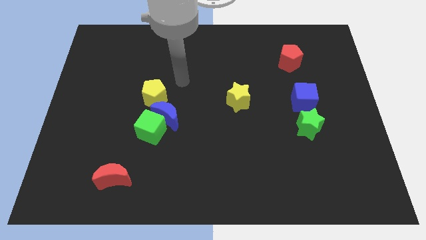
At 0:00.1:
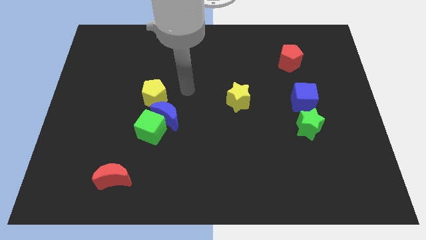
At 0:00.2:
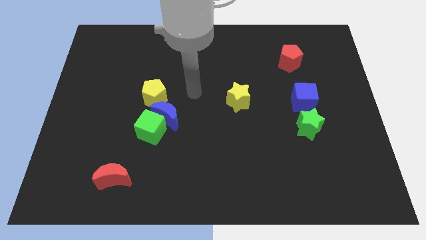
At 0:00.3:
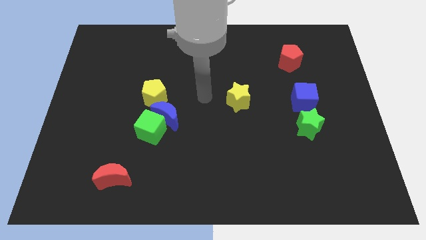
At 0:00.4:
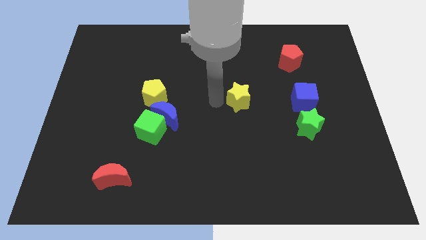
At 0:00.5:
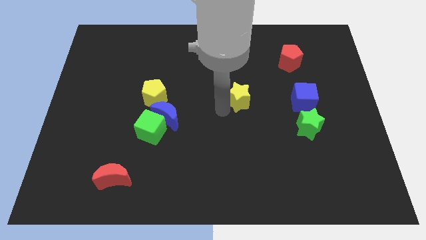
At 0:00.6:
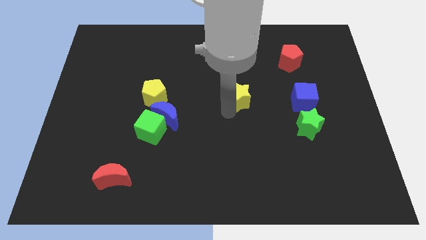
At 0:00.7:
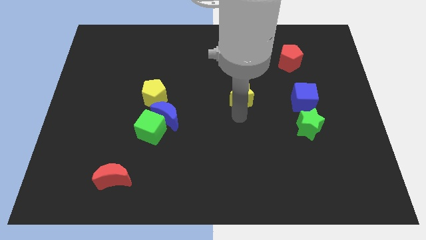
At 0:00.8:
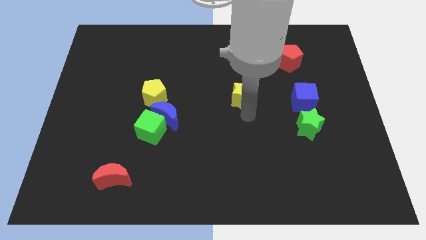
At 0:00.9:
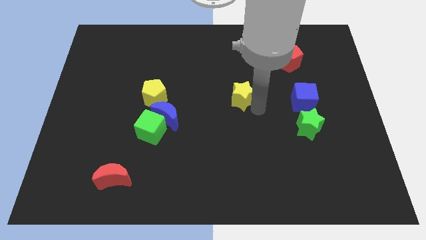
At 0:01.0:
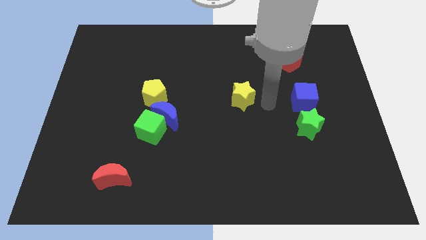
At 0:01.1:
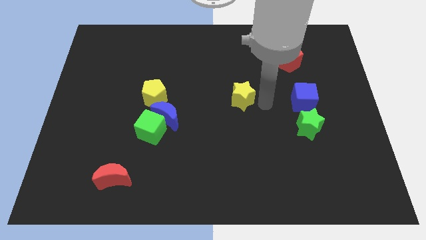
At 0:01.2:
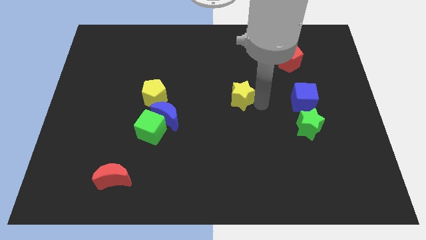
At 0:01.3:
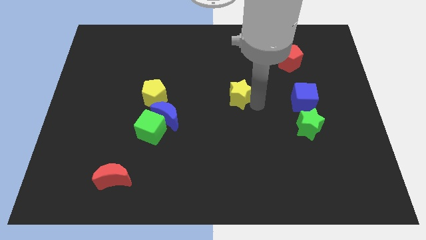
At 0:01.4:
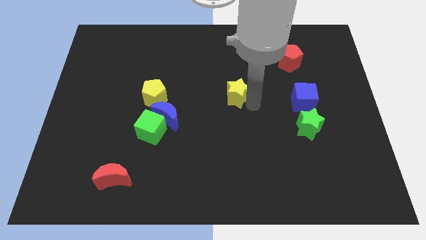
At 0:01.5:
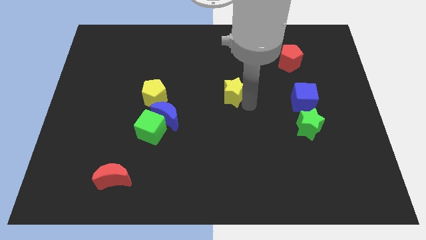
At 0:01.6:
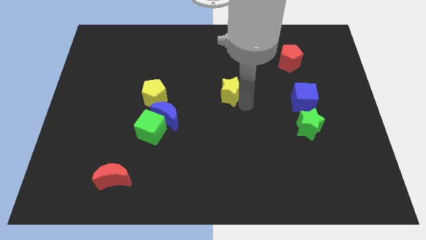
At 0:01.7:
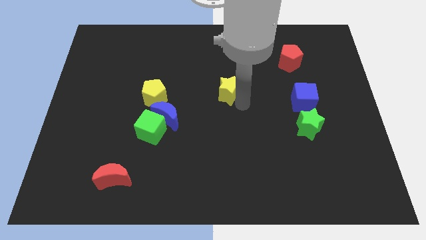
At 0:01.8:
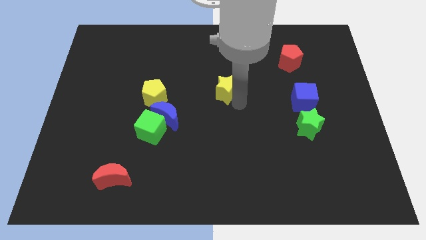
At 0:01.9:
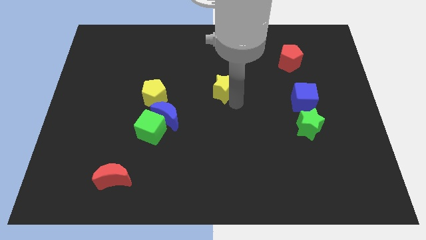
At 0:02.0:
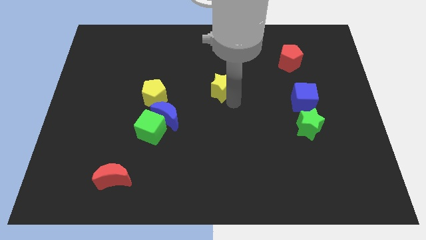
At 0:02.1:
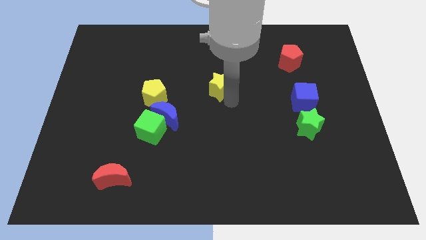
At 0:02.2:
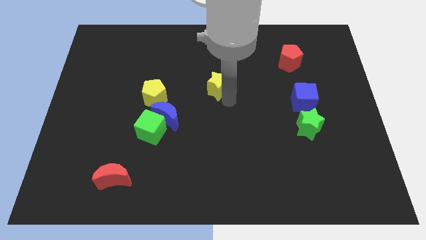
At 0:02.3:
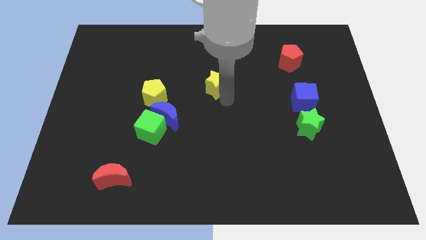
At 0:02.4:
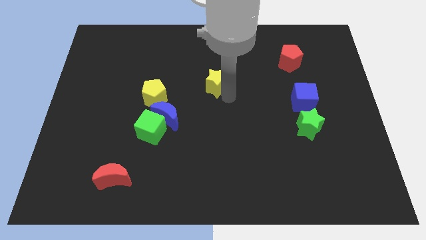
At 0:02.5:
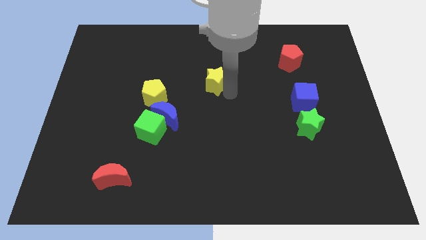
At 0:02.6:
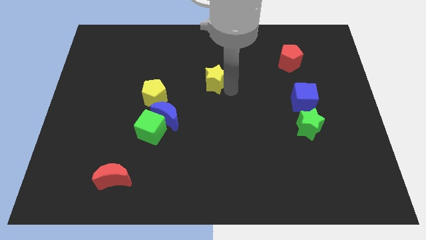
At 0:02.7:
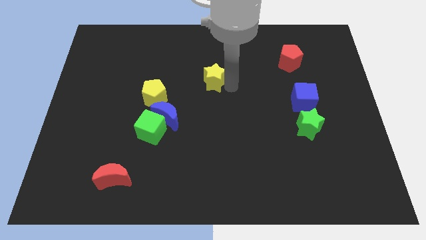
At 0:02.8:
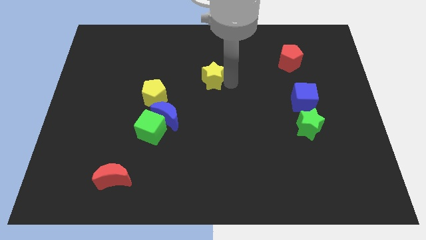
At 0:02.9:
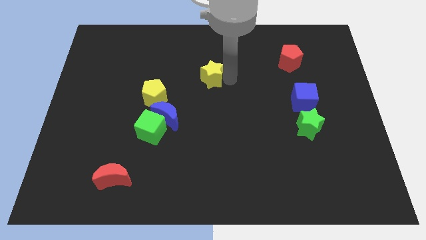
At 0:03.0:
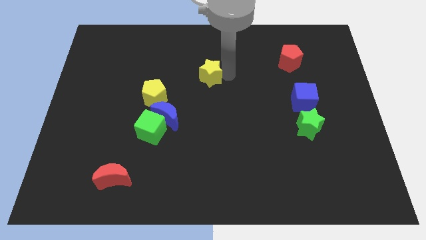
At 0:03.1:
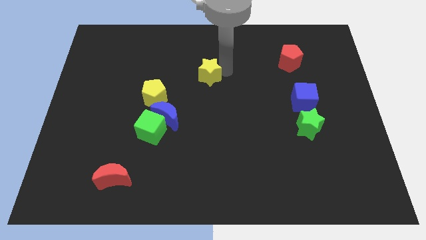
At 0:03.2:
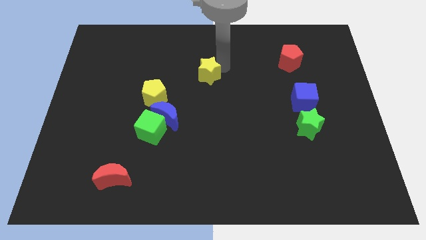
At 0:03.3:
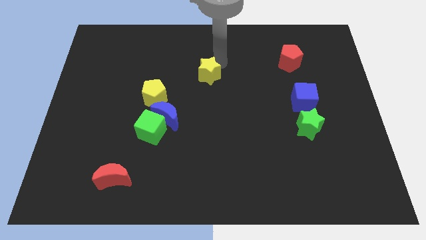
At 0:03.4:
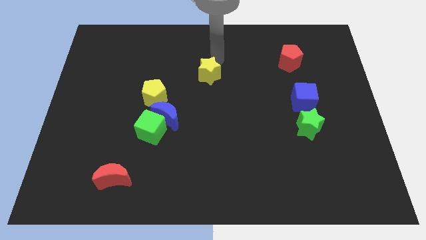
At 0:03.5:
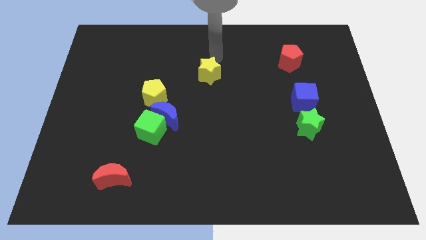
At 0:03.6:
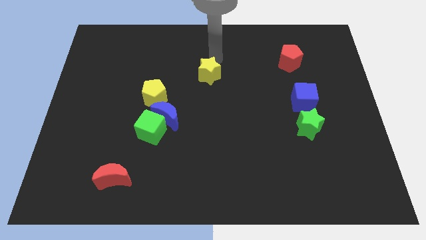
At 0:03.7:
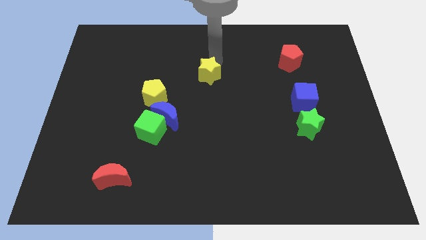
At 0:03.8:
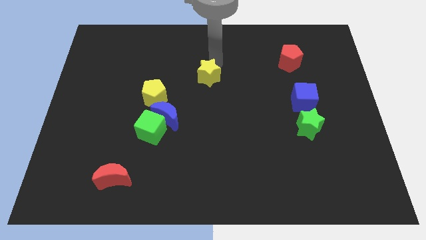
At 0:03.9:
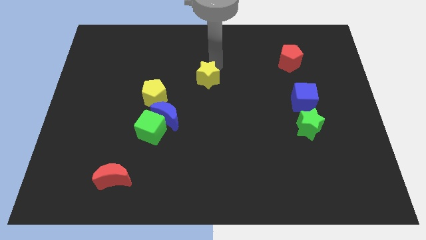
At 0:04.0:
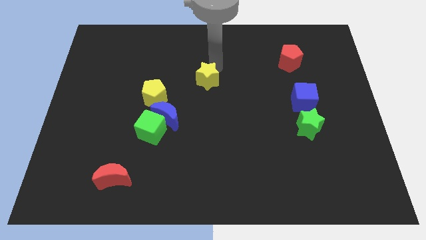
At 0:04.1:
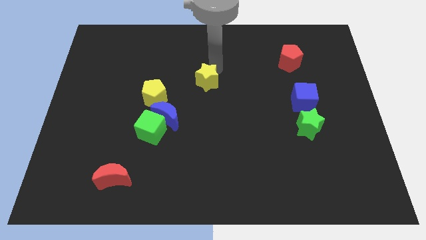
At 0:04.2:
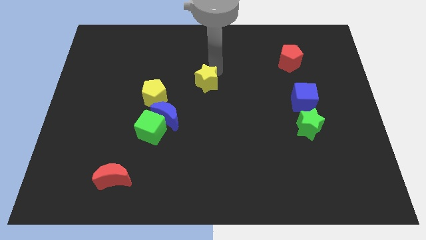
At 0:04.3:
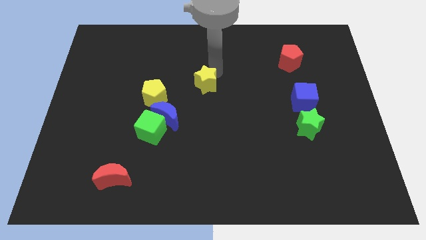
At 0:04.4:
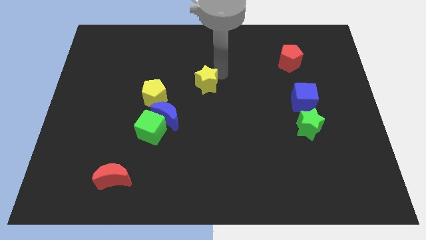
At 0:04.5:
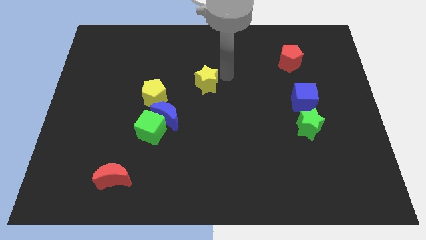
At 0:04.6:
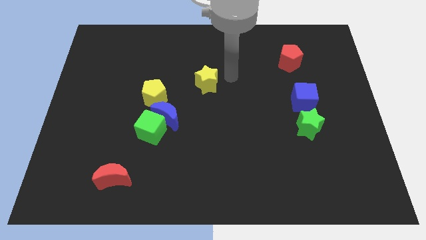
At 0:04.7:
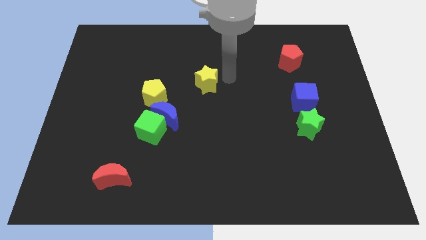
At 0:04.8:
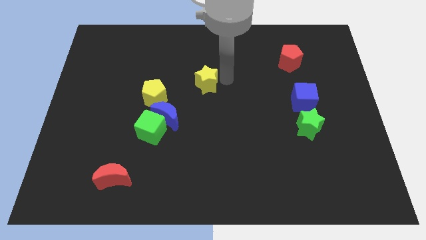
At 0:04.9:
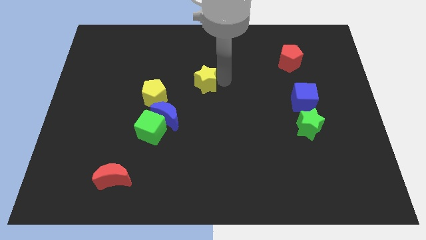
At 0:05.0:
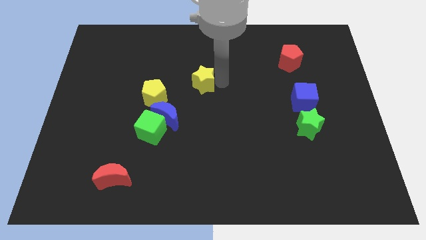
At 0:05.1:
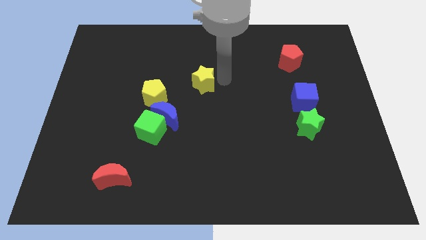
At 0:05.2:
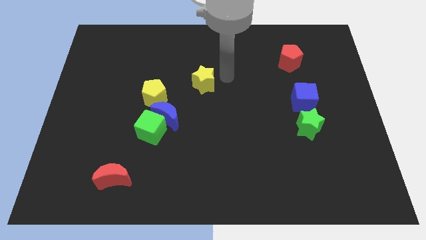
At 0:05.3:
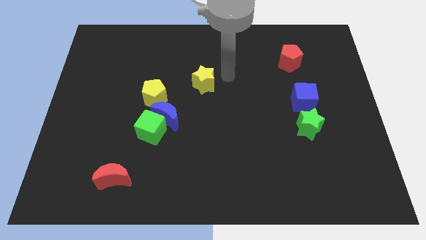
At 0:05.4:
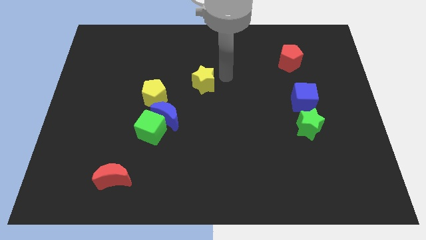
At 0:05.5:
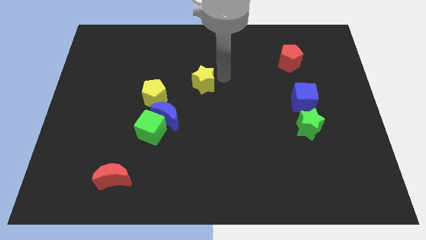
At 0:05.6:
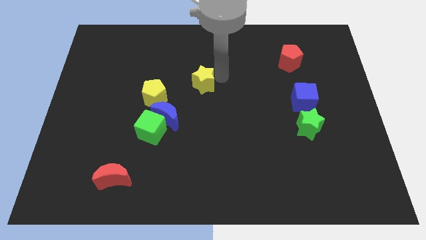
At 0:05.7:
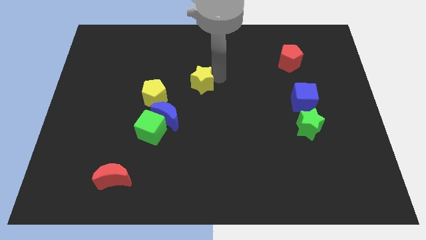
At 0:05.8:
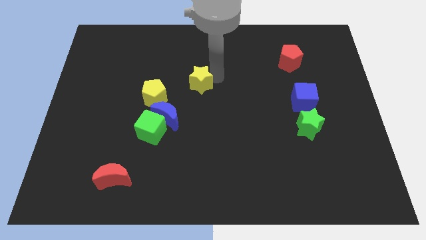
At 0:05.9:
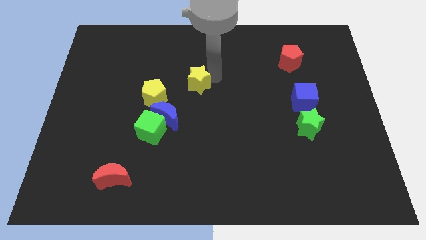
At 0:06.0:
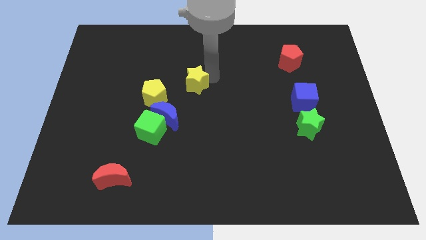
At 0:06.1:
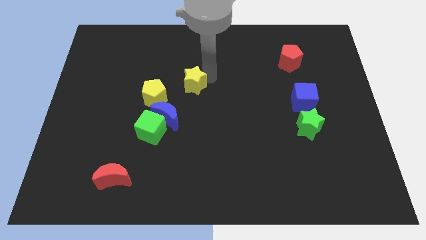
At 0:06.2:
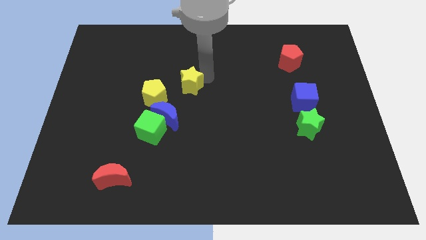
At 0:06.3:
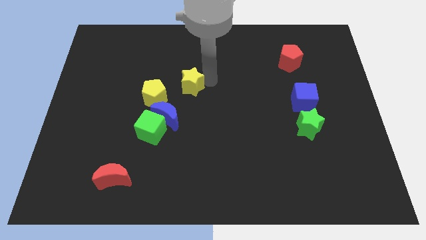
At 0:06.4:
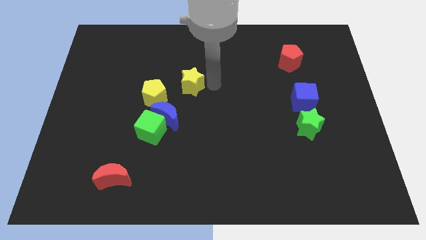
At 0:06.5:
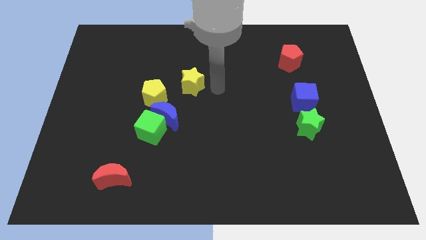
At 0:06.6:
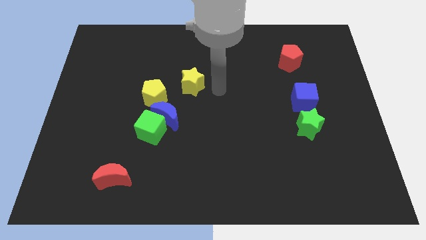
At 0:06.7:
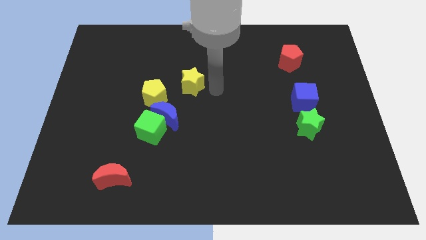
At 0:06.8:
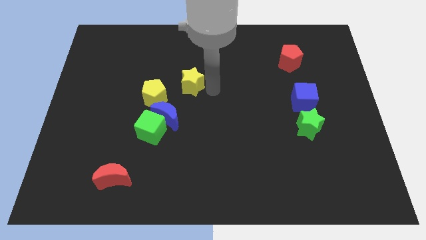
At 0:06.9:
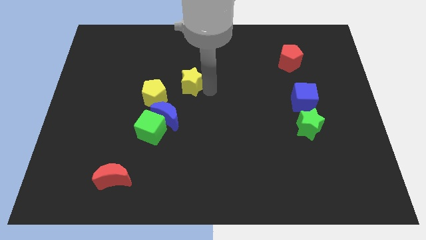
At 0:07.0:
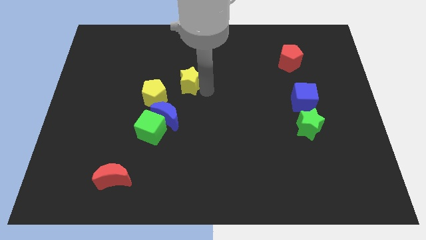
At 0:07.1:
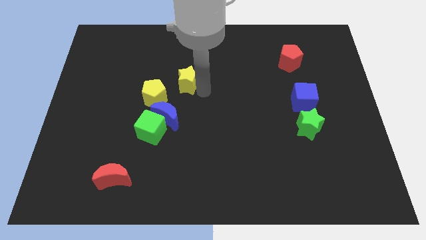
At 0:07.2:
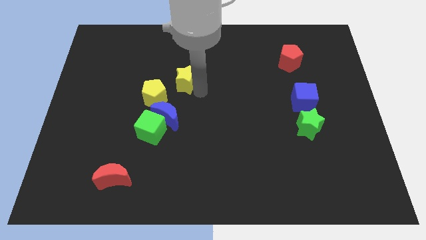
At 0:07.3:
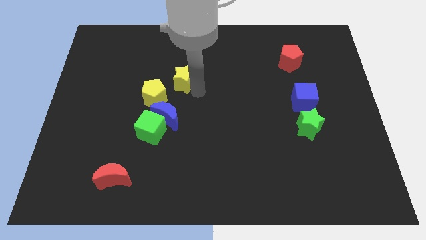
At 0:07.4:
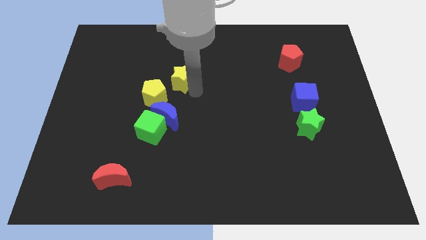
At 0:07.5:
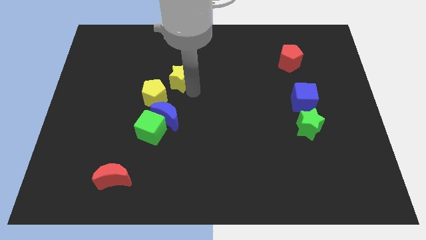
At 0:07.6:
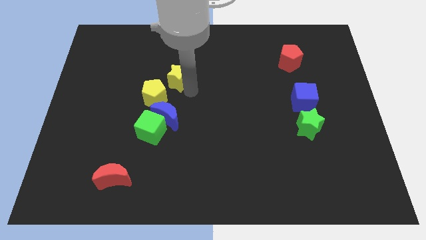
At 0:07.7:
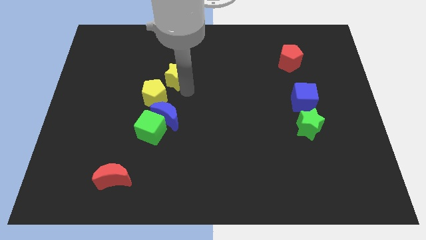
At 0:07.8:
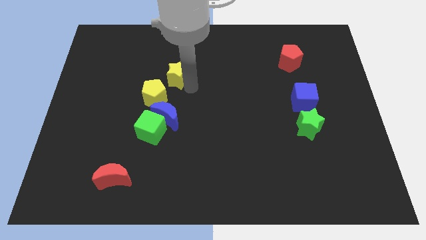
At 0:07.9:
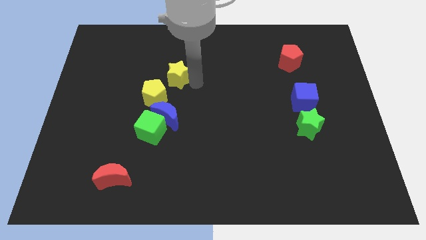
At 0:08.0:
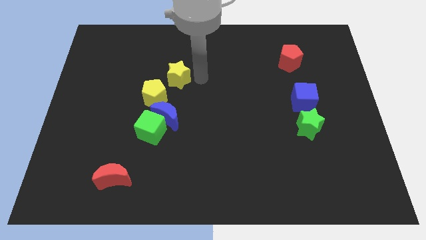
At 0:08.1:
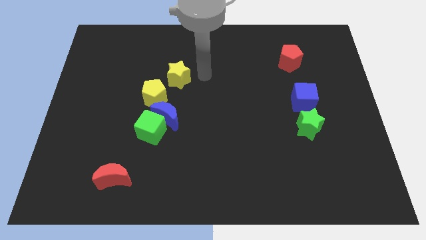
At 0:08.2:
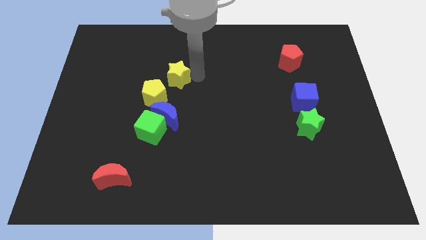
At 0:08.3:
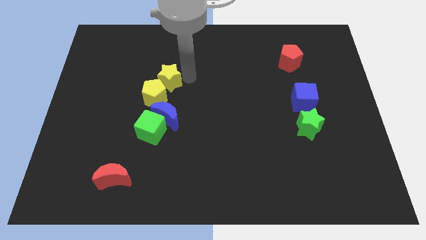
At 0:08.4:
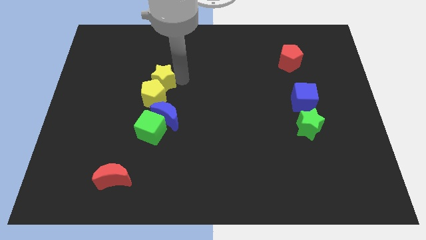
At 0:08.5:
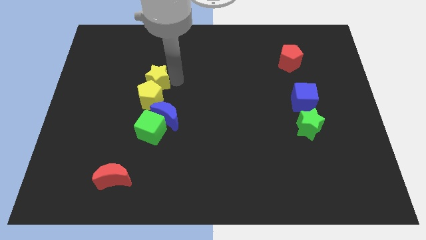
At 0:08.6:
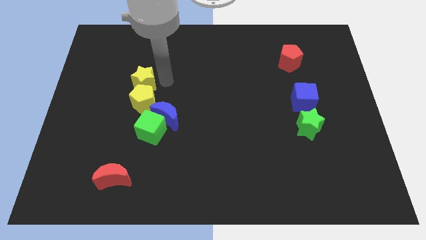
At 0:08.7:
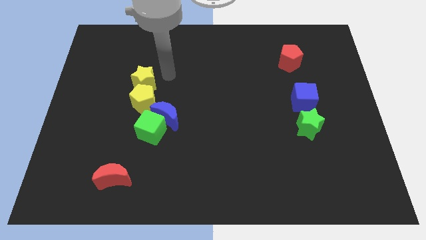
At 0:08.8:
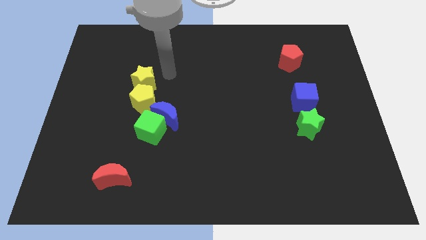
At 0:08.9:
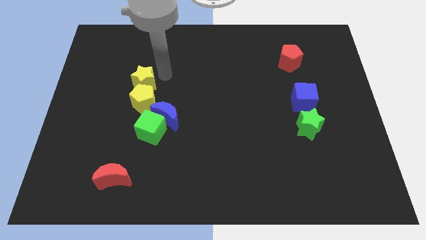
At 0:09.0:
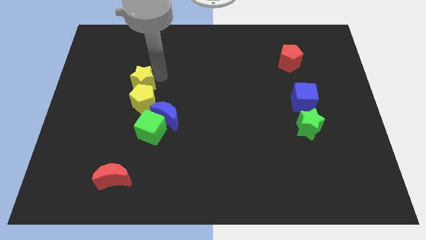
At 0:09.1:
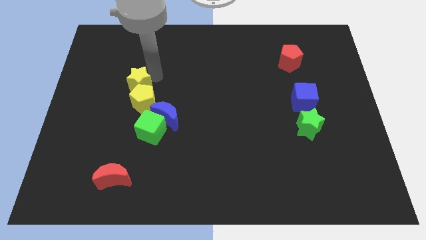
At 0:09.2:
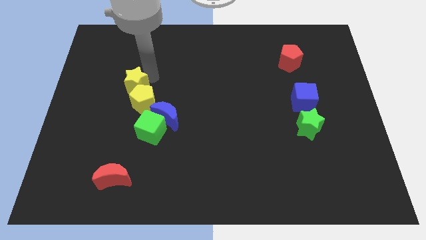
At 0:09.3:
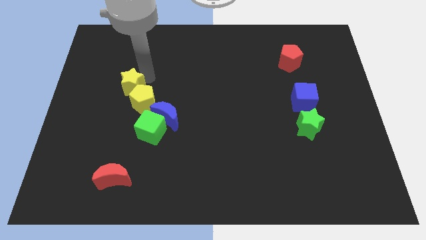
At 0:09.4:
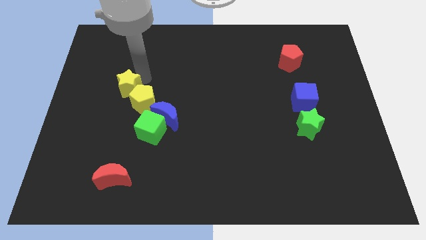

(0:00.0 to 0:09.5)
push the yellow star to the left of the yellow pentagon
